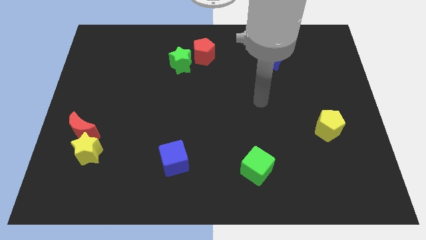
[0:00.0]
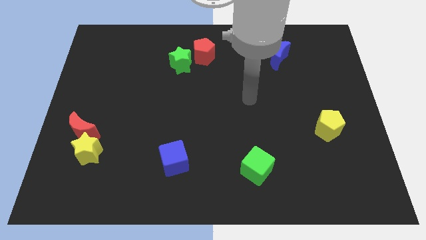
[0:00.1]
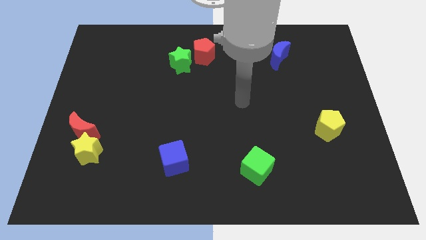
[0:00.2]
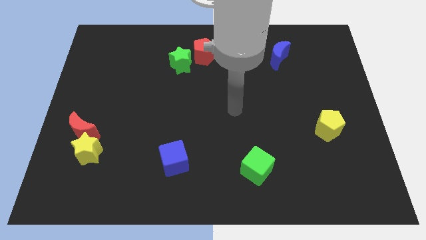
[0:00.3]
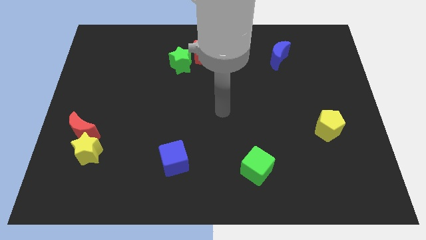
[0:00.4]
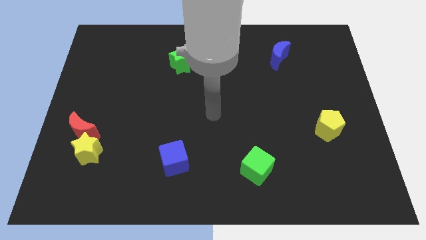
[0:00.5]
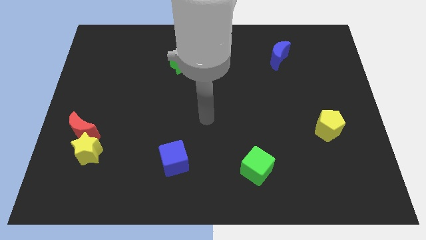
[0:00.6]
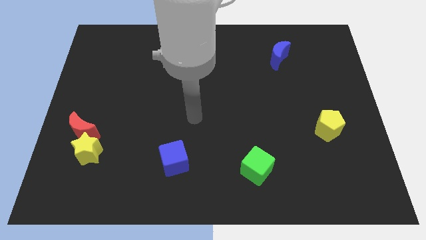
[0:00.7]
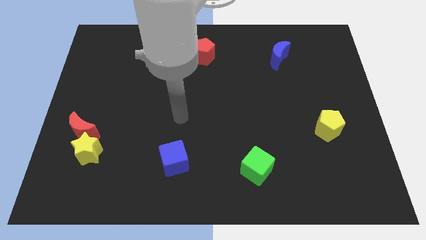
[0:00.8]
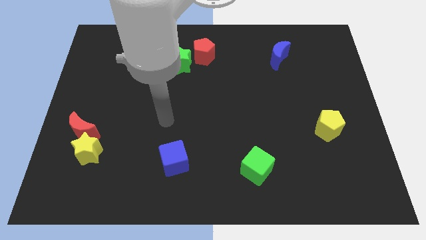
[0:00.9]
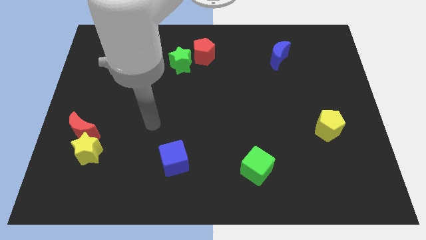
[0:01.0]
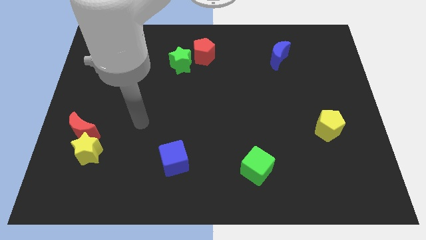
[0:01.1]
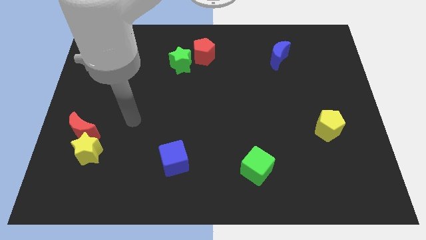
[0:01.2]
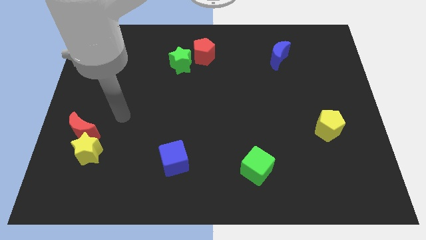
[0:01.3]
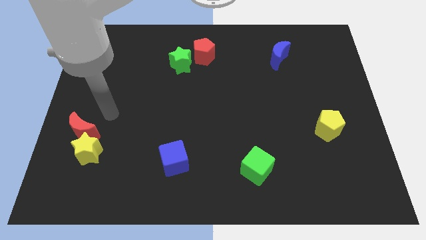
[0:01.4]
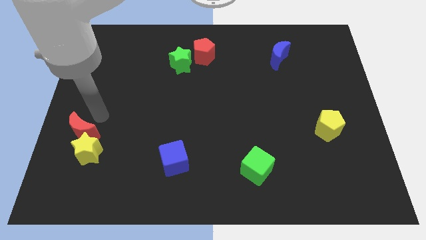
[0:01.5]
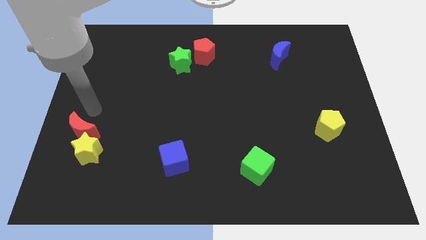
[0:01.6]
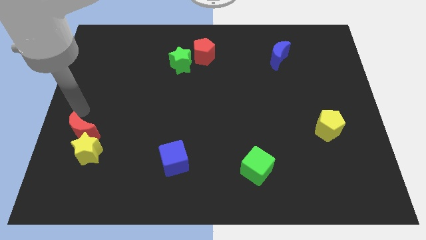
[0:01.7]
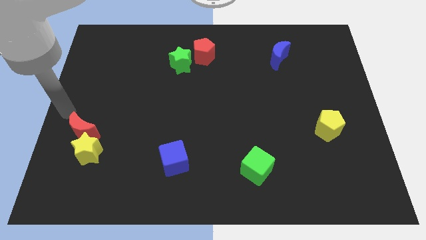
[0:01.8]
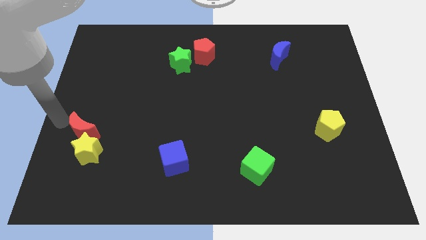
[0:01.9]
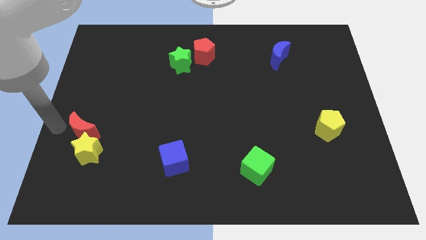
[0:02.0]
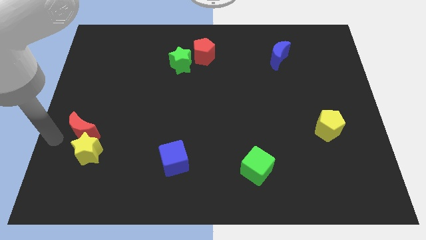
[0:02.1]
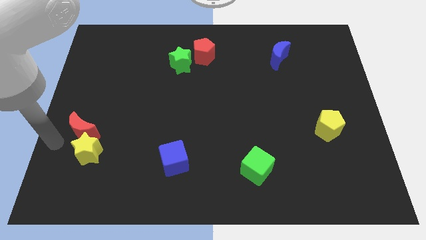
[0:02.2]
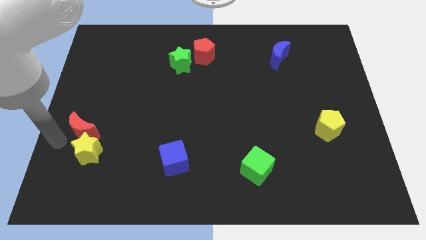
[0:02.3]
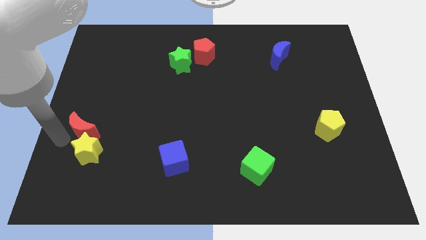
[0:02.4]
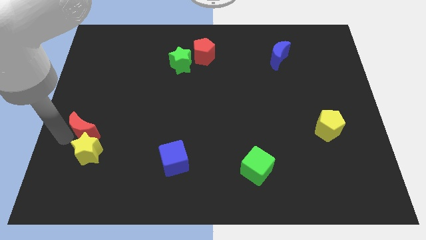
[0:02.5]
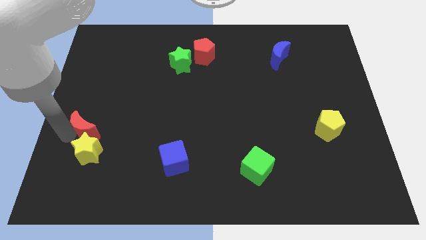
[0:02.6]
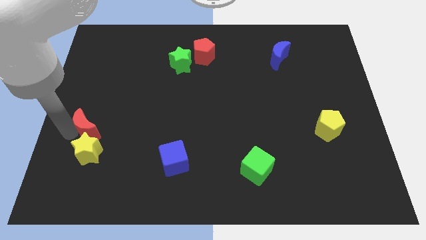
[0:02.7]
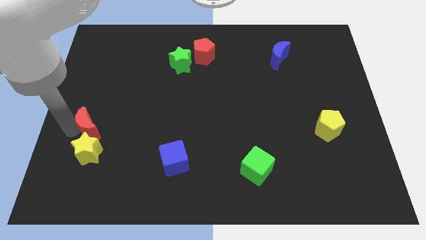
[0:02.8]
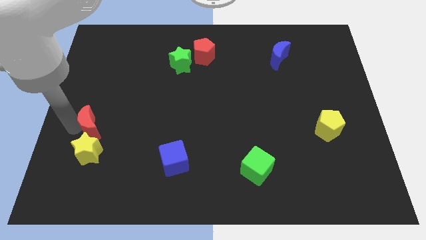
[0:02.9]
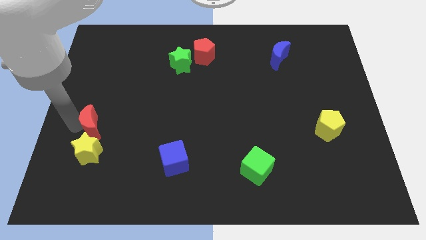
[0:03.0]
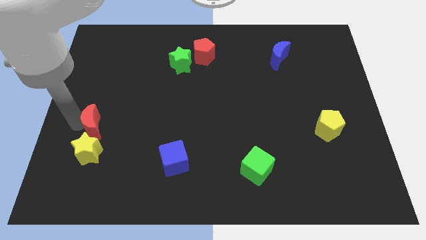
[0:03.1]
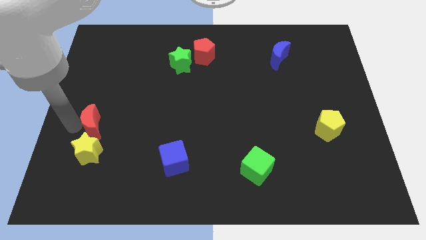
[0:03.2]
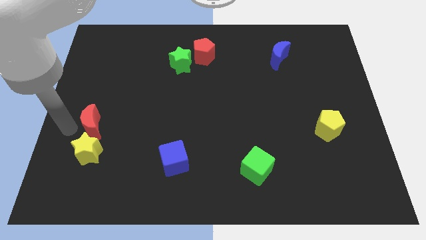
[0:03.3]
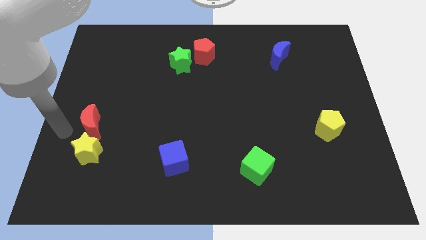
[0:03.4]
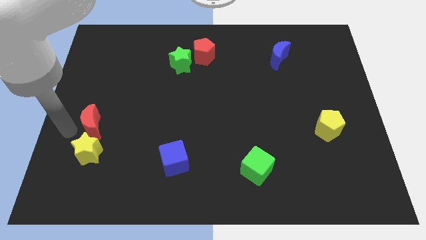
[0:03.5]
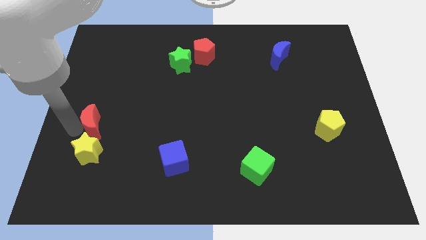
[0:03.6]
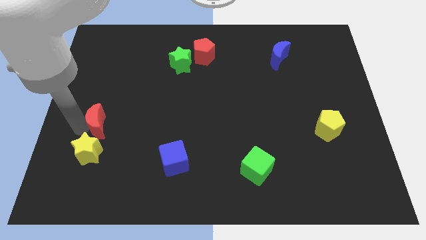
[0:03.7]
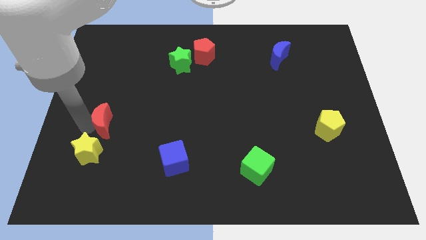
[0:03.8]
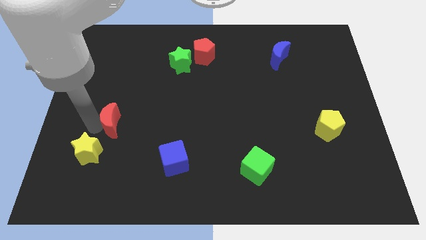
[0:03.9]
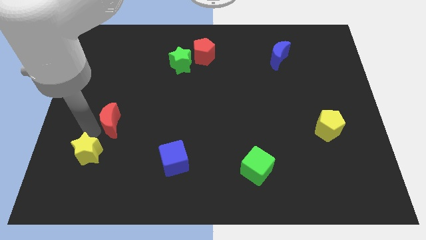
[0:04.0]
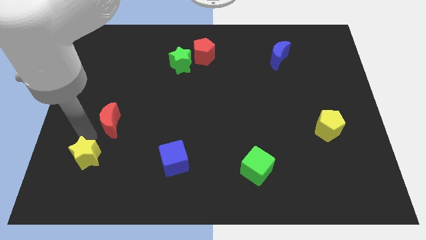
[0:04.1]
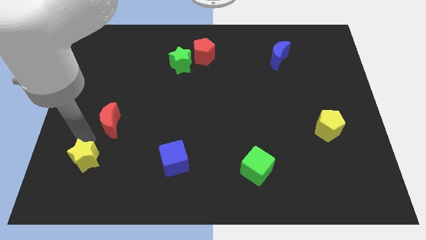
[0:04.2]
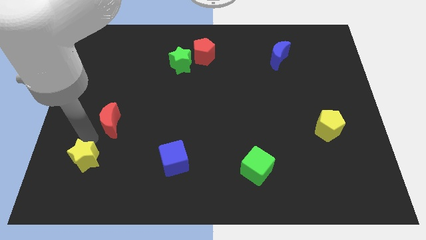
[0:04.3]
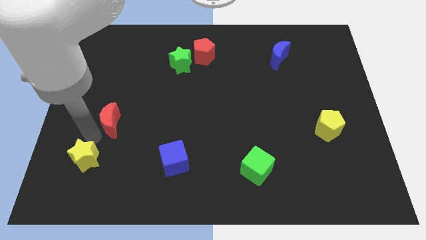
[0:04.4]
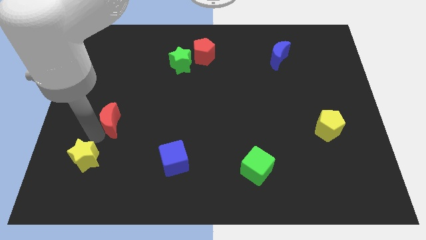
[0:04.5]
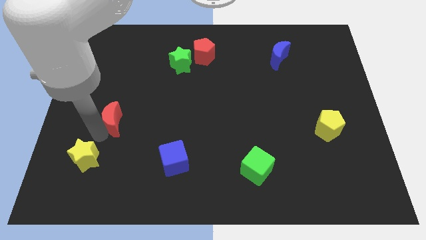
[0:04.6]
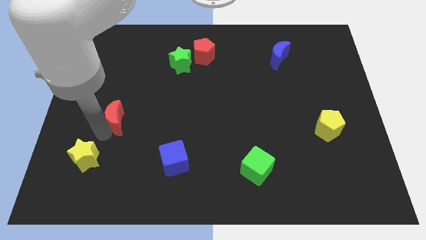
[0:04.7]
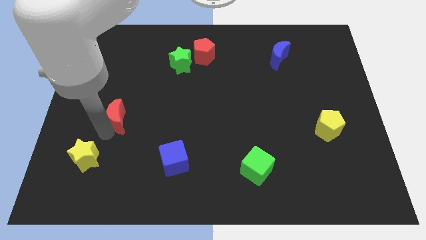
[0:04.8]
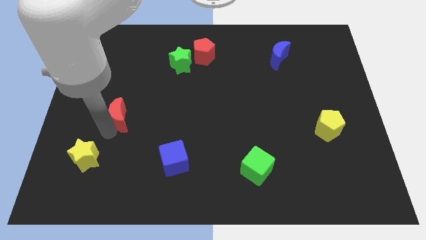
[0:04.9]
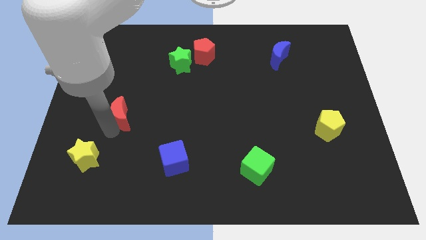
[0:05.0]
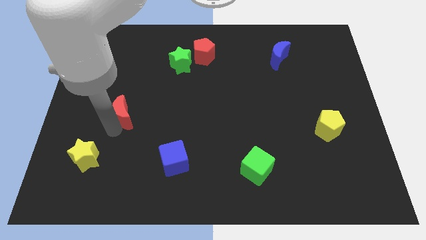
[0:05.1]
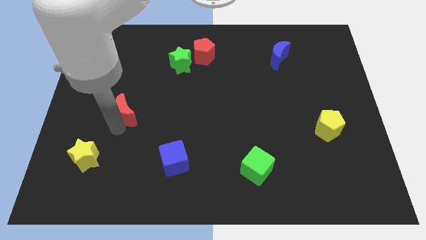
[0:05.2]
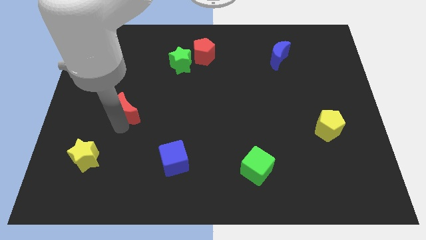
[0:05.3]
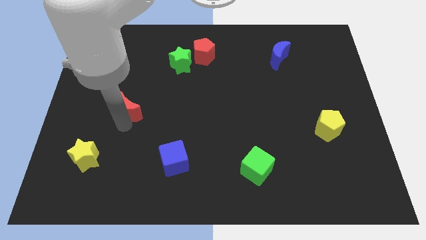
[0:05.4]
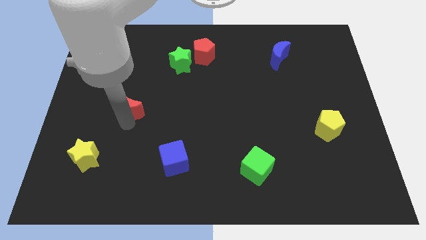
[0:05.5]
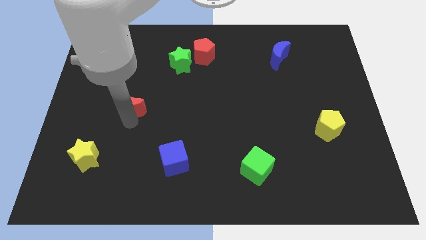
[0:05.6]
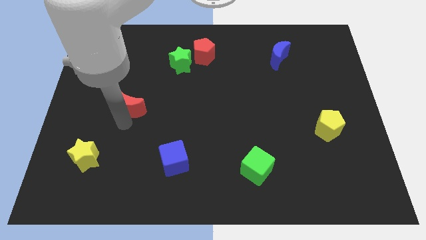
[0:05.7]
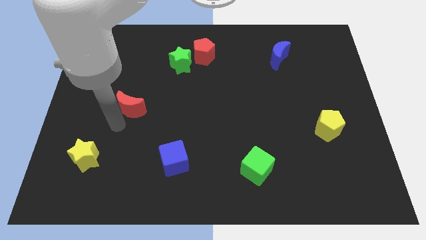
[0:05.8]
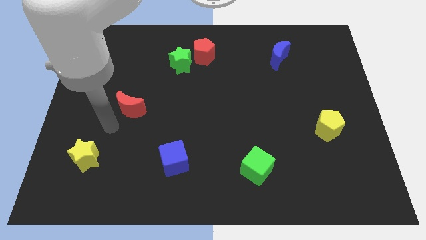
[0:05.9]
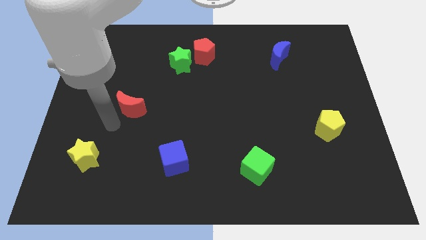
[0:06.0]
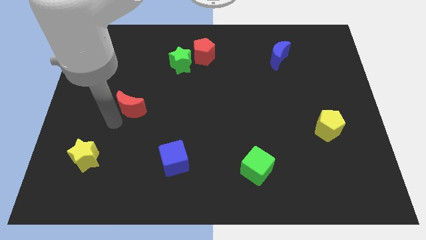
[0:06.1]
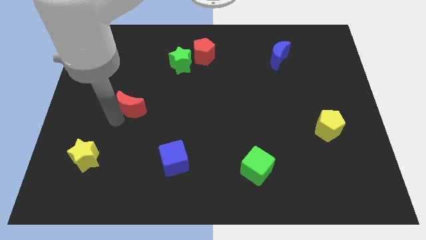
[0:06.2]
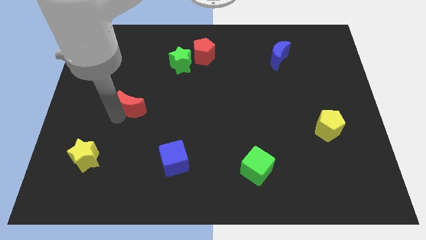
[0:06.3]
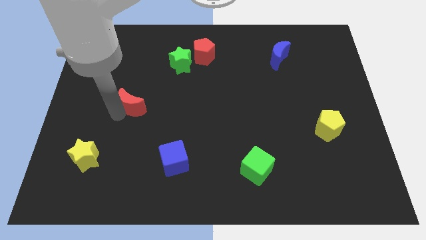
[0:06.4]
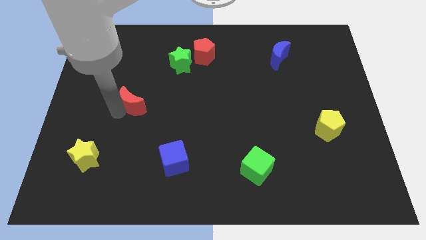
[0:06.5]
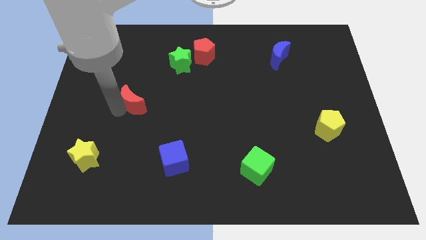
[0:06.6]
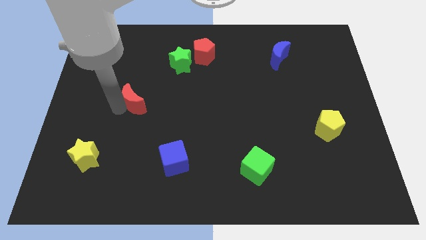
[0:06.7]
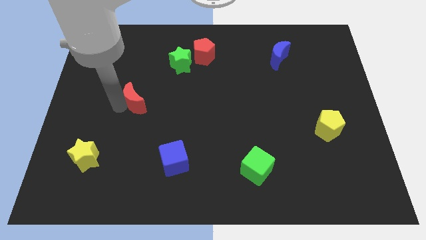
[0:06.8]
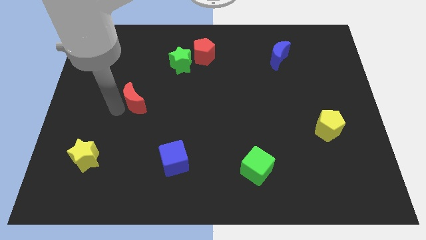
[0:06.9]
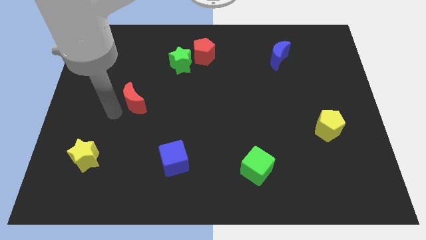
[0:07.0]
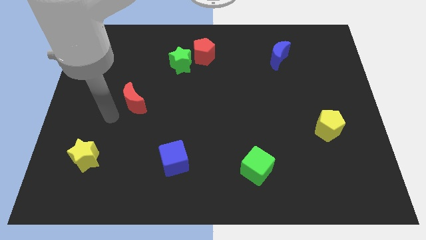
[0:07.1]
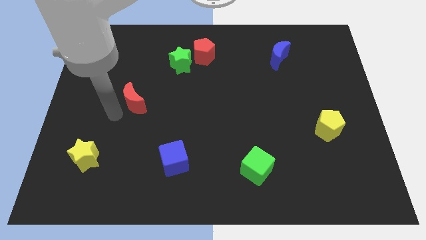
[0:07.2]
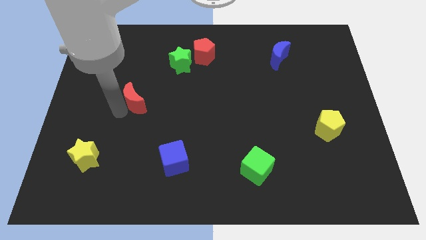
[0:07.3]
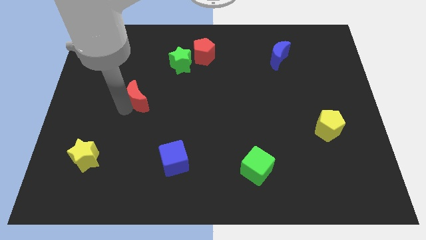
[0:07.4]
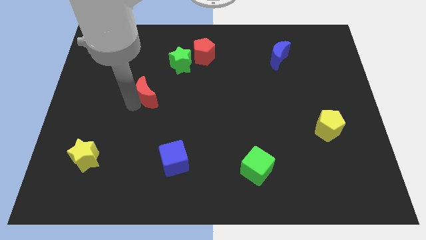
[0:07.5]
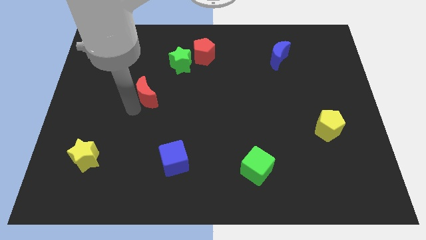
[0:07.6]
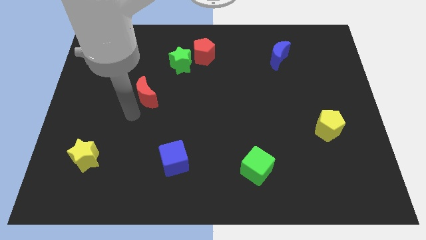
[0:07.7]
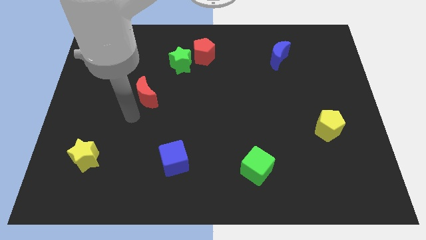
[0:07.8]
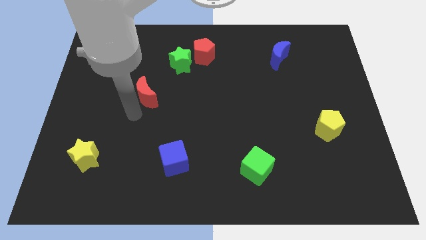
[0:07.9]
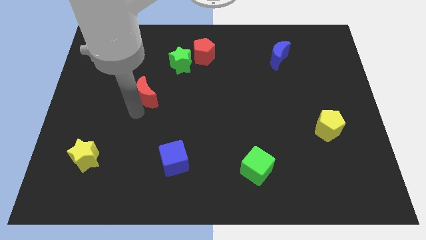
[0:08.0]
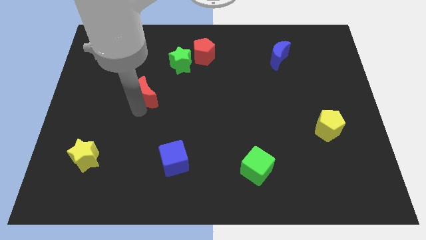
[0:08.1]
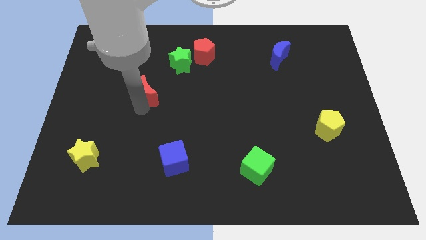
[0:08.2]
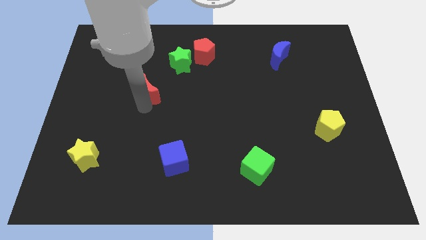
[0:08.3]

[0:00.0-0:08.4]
move the red moon to the bottom left of the green star
